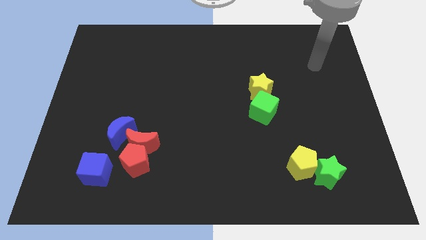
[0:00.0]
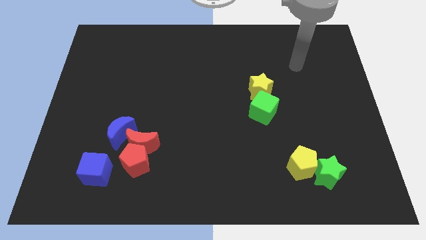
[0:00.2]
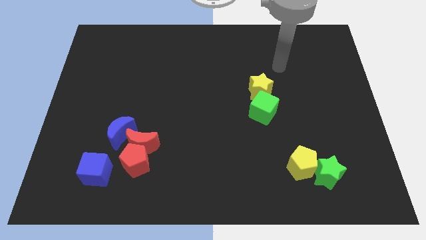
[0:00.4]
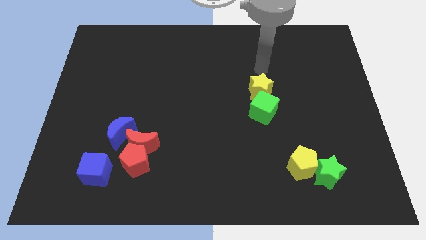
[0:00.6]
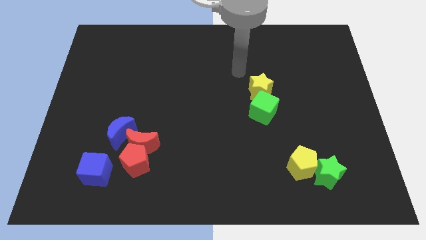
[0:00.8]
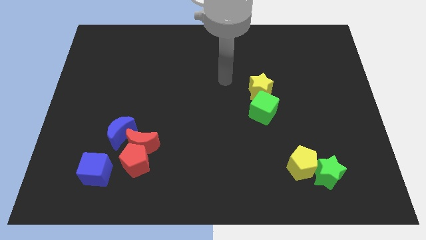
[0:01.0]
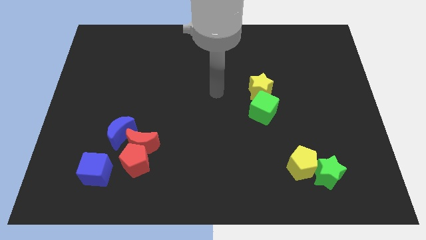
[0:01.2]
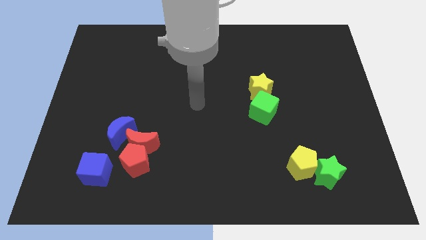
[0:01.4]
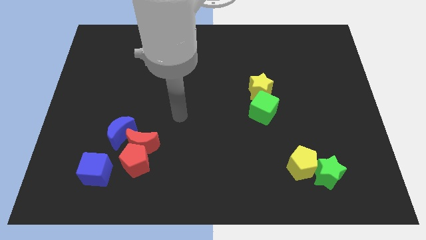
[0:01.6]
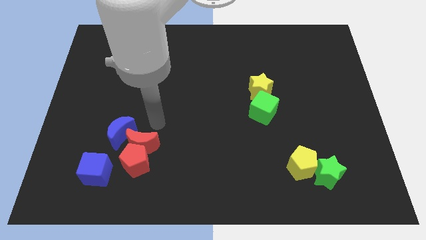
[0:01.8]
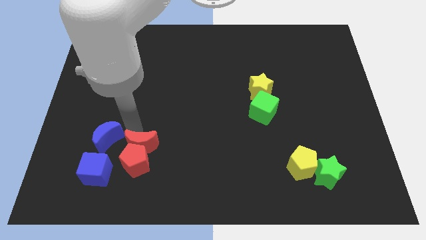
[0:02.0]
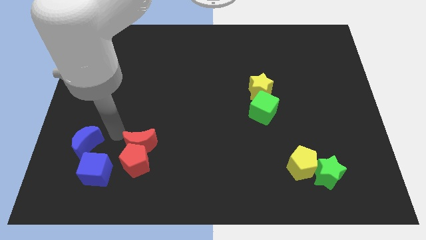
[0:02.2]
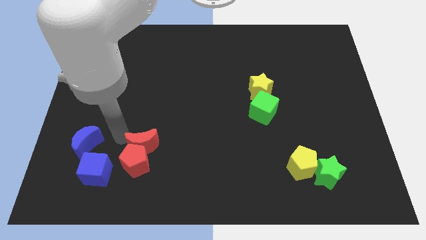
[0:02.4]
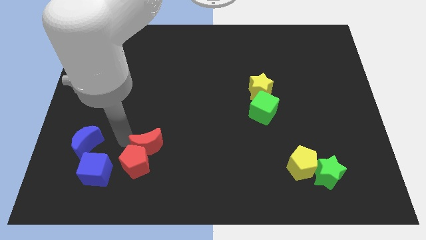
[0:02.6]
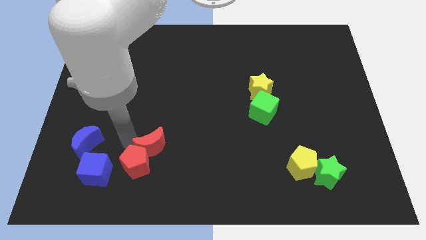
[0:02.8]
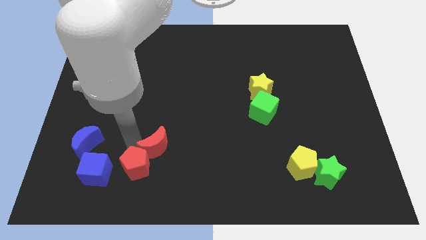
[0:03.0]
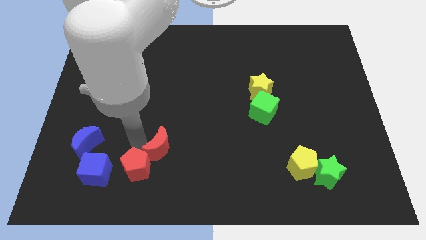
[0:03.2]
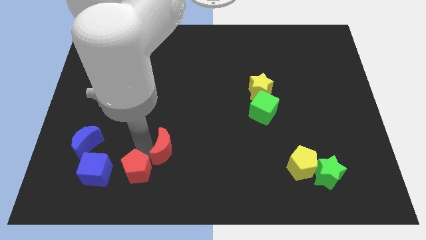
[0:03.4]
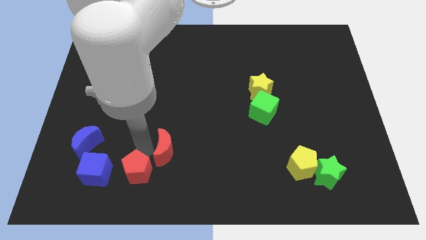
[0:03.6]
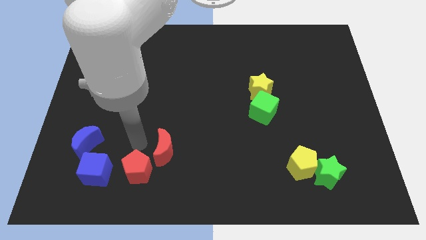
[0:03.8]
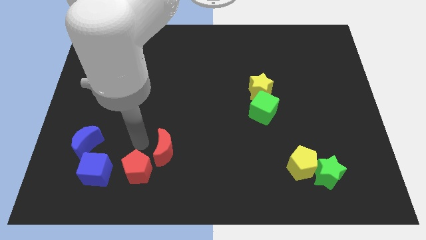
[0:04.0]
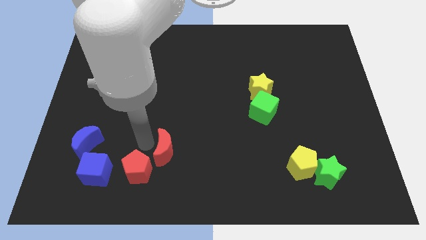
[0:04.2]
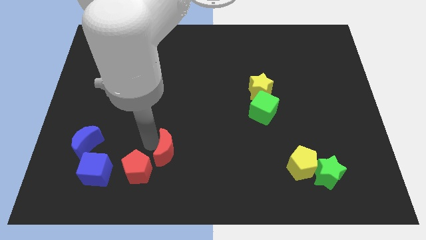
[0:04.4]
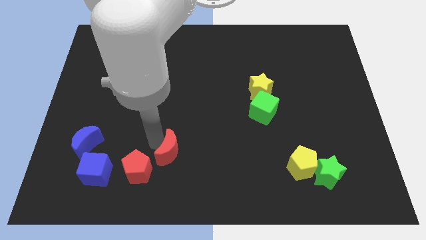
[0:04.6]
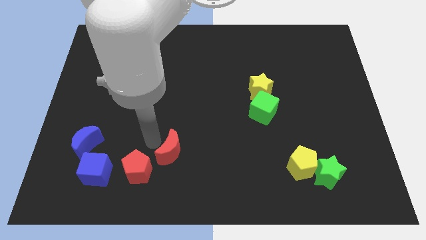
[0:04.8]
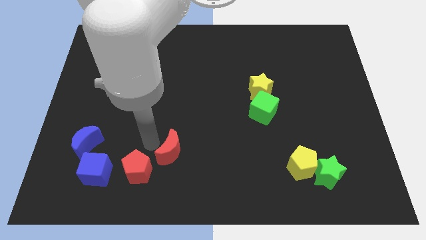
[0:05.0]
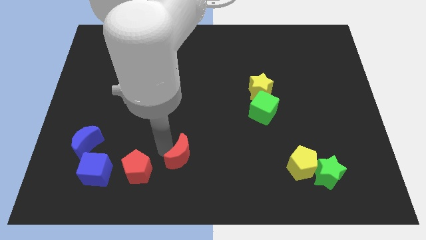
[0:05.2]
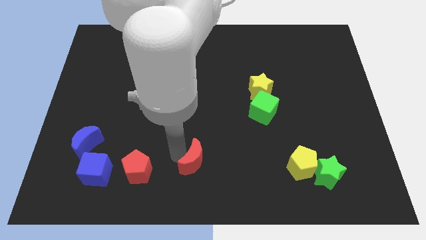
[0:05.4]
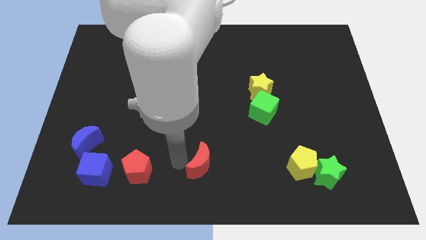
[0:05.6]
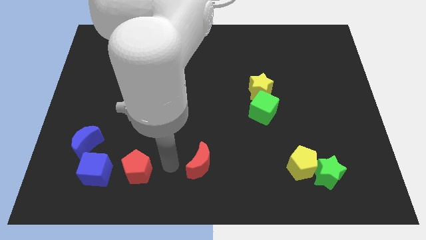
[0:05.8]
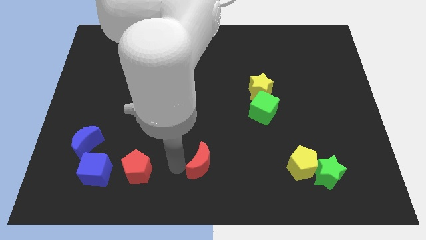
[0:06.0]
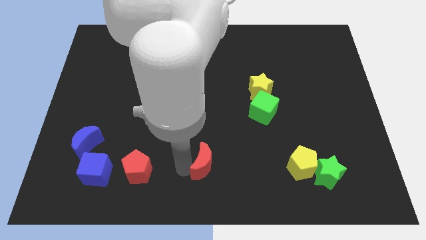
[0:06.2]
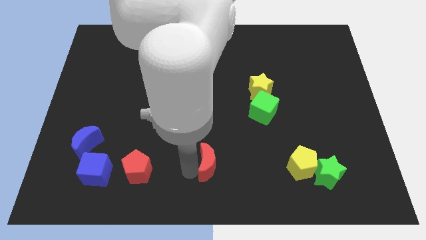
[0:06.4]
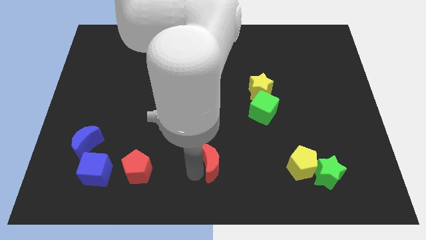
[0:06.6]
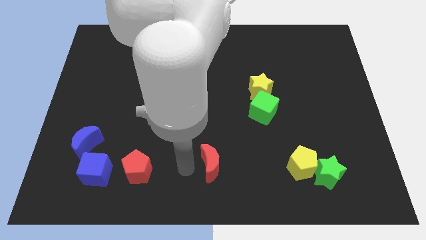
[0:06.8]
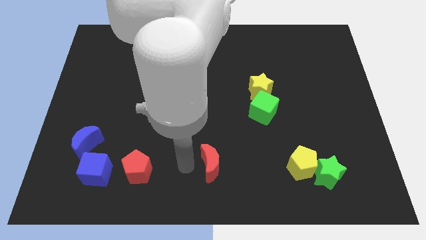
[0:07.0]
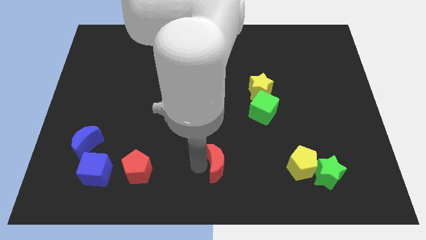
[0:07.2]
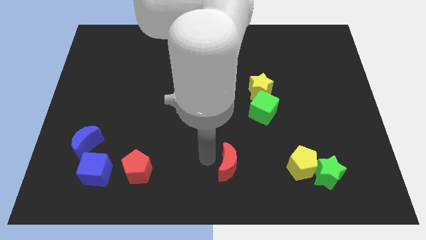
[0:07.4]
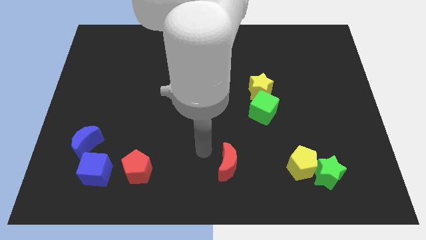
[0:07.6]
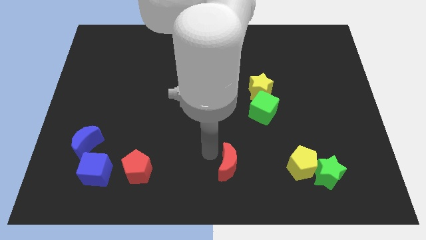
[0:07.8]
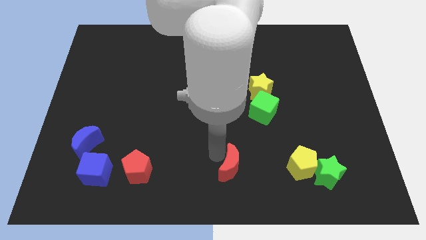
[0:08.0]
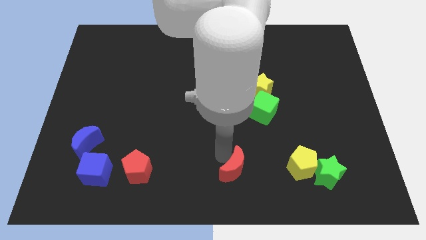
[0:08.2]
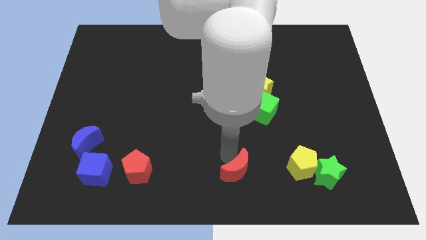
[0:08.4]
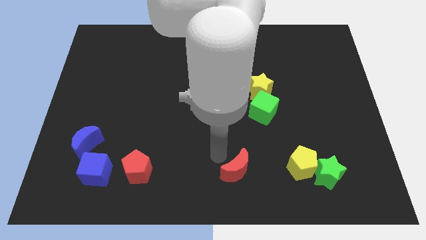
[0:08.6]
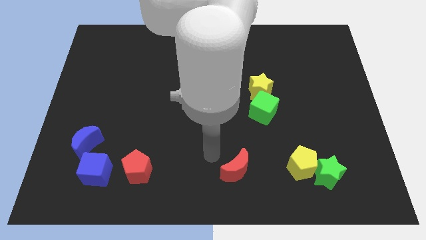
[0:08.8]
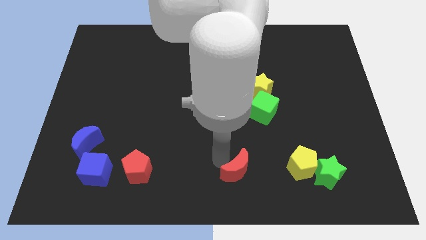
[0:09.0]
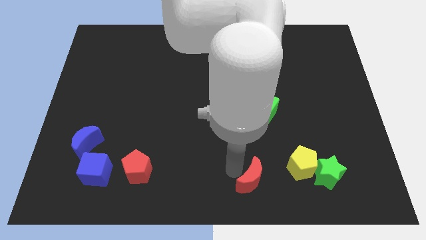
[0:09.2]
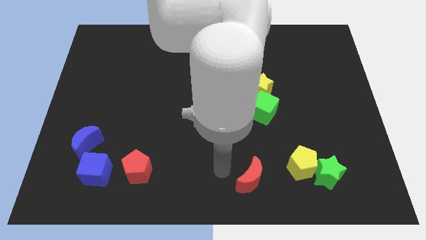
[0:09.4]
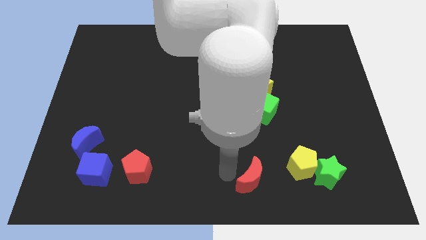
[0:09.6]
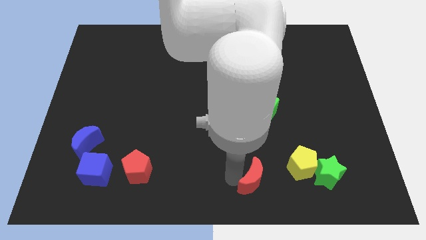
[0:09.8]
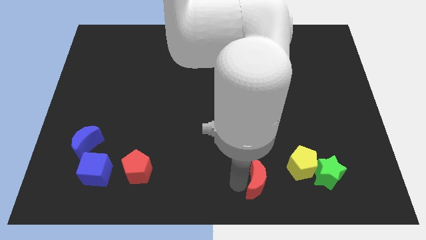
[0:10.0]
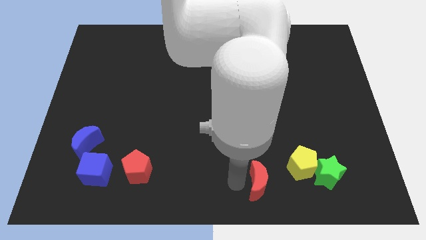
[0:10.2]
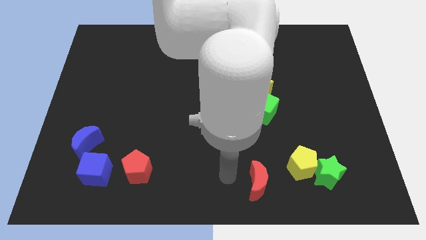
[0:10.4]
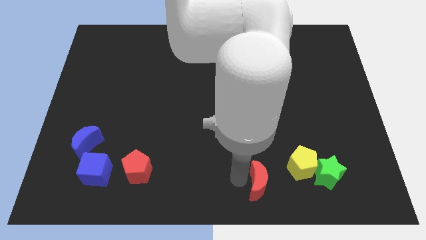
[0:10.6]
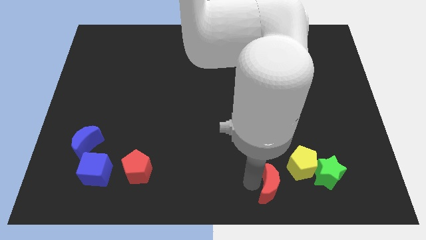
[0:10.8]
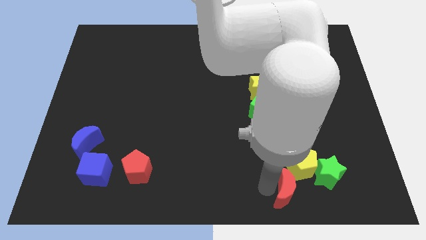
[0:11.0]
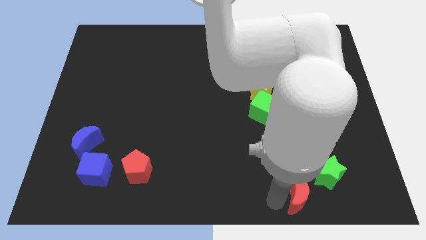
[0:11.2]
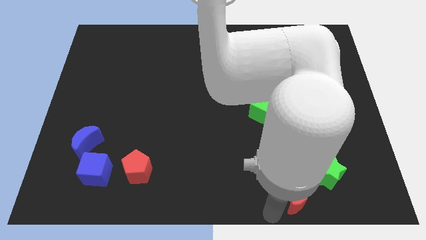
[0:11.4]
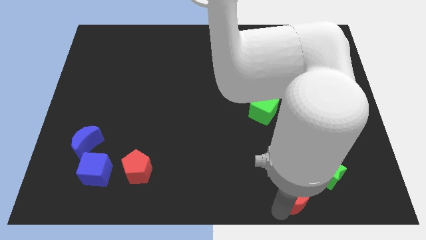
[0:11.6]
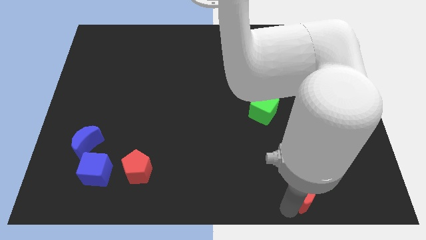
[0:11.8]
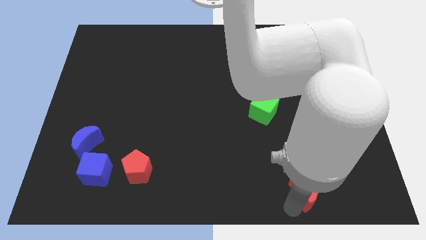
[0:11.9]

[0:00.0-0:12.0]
slide the red moon close to the green star

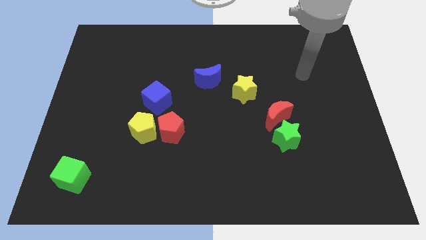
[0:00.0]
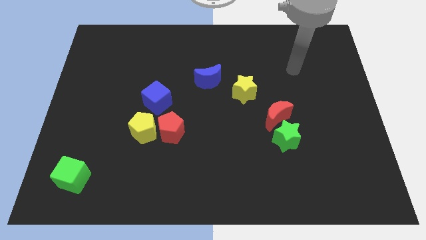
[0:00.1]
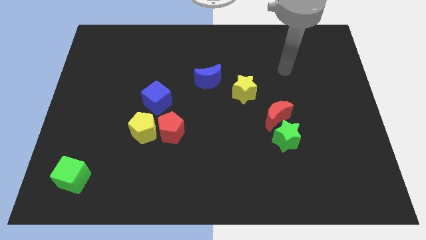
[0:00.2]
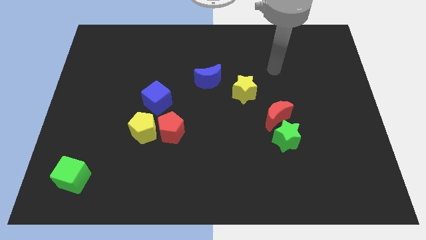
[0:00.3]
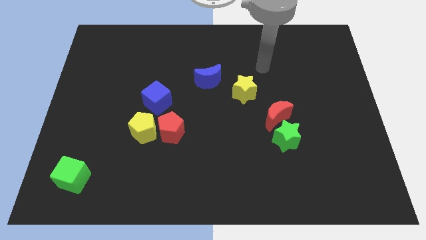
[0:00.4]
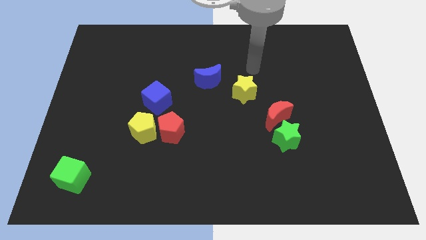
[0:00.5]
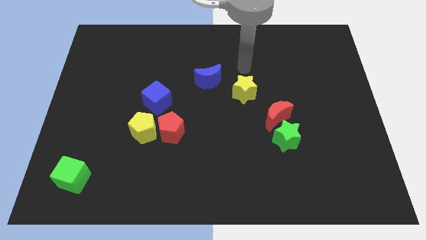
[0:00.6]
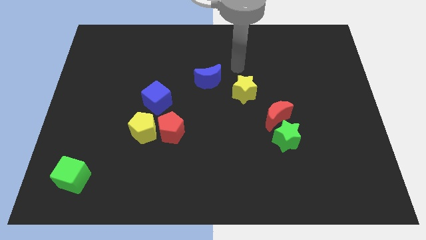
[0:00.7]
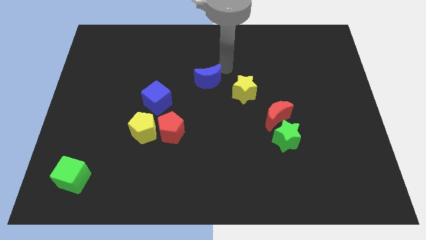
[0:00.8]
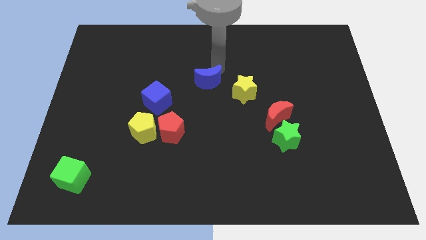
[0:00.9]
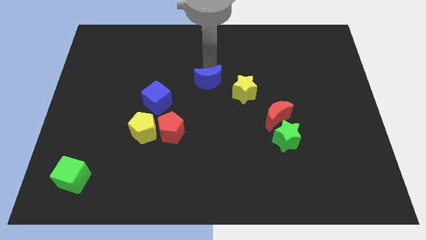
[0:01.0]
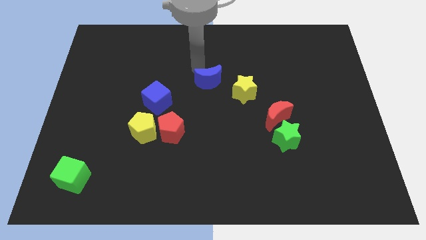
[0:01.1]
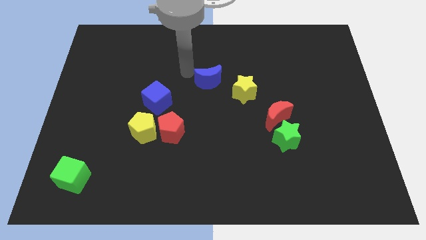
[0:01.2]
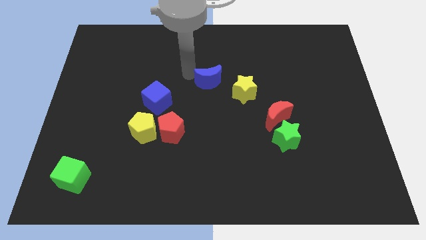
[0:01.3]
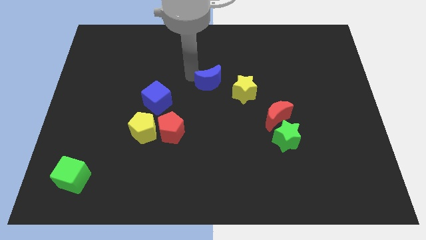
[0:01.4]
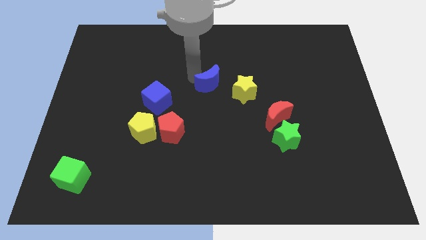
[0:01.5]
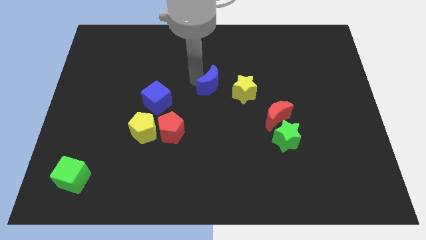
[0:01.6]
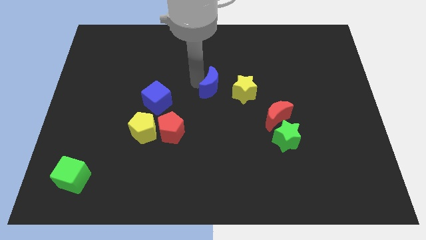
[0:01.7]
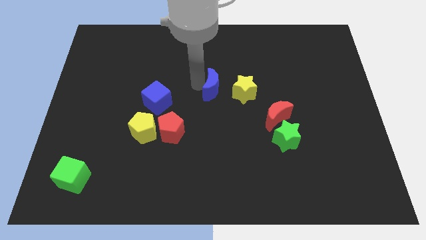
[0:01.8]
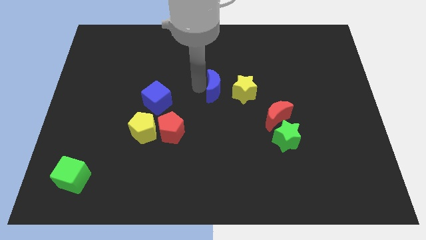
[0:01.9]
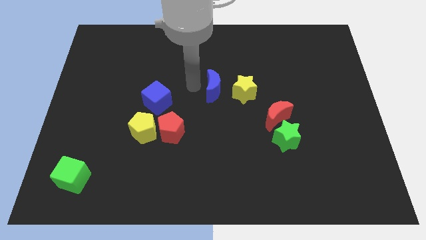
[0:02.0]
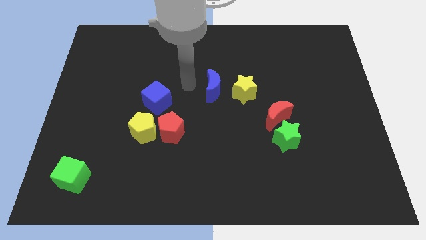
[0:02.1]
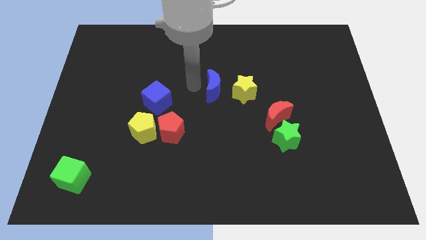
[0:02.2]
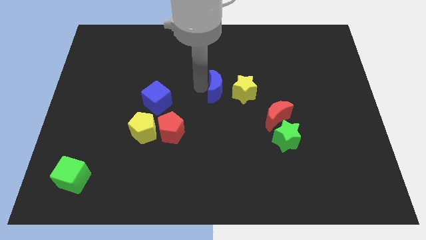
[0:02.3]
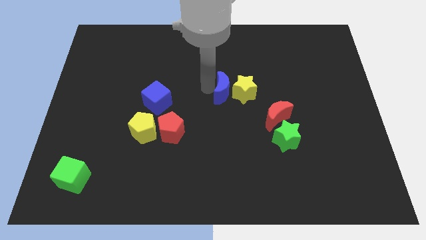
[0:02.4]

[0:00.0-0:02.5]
move the blue moon towards the yellow star
